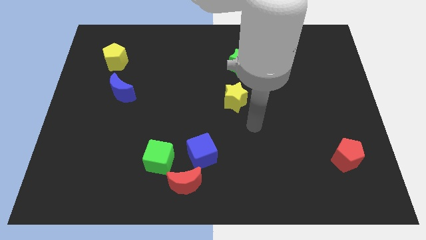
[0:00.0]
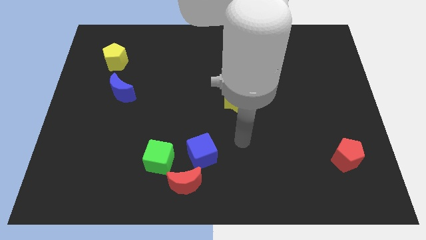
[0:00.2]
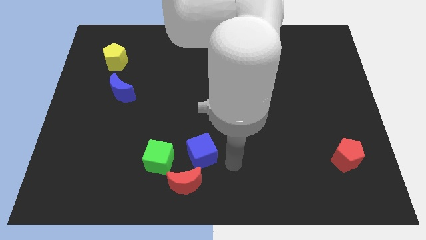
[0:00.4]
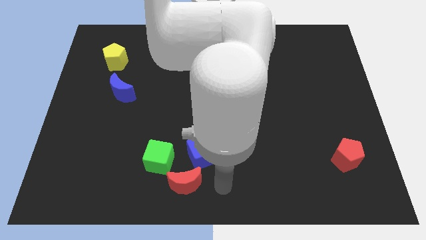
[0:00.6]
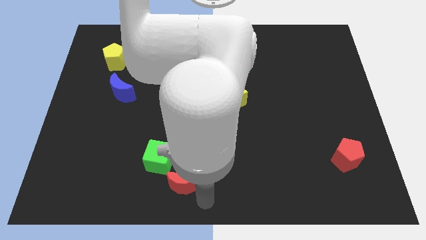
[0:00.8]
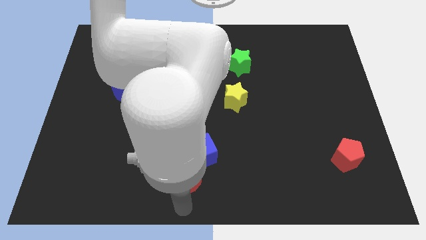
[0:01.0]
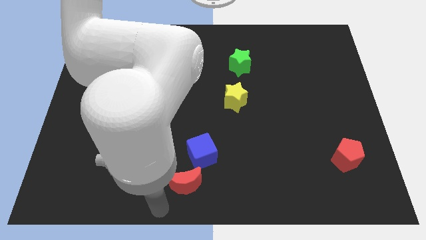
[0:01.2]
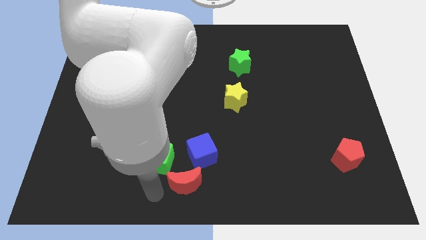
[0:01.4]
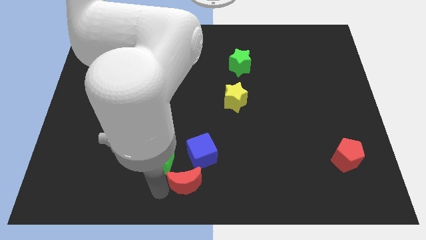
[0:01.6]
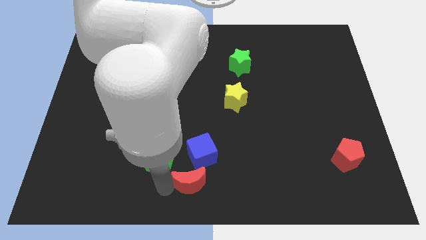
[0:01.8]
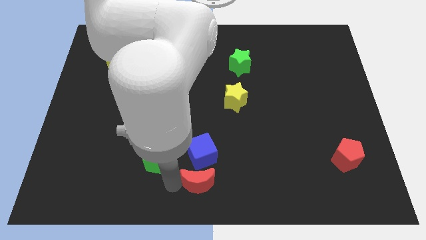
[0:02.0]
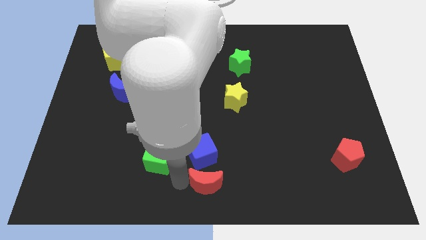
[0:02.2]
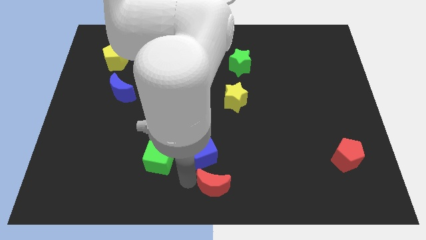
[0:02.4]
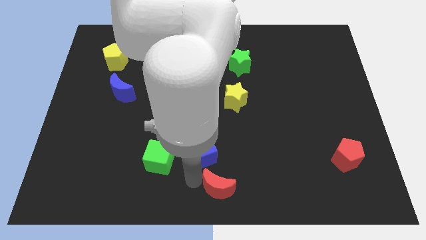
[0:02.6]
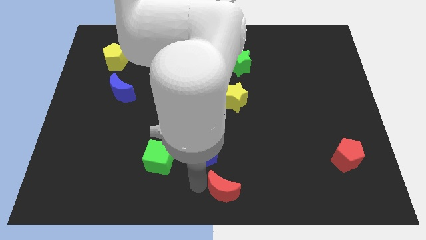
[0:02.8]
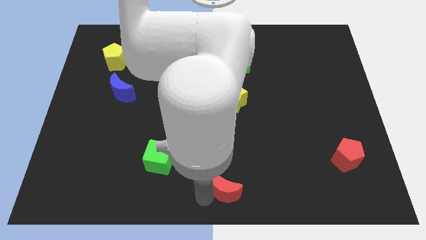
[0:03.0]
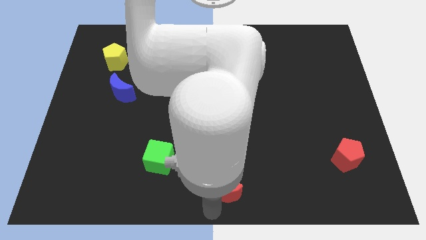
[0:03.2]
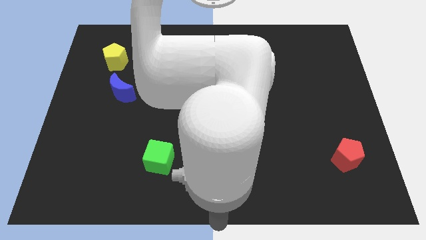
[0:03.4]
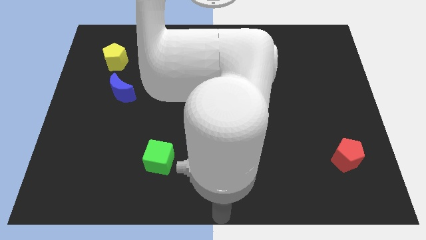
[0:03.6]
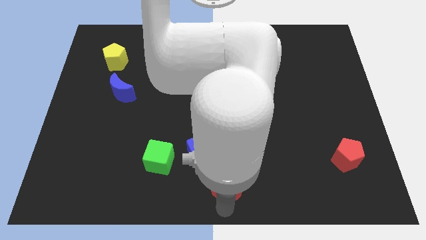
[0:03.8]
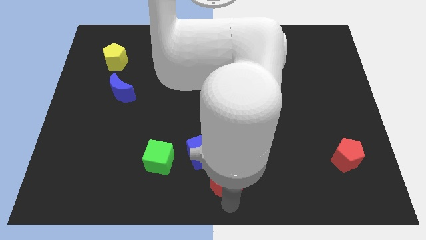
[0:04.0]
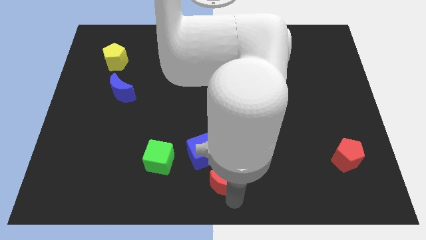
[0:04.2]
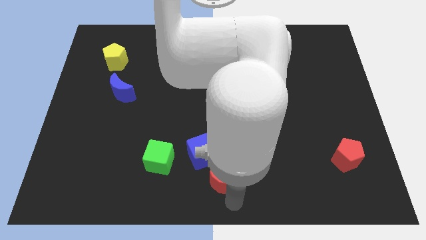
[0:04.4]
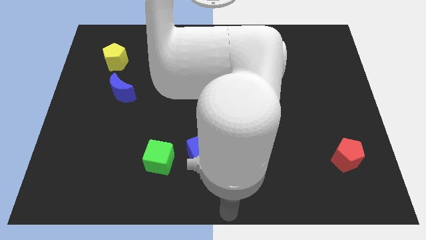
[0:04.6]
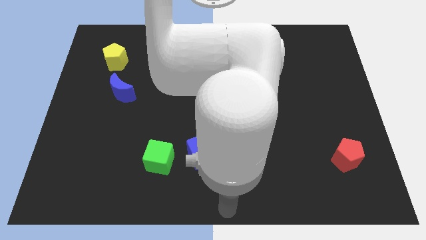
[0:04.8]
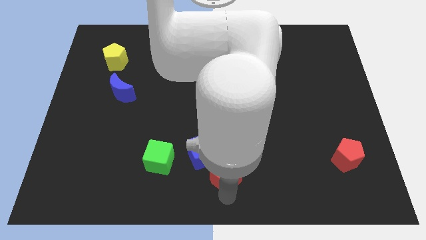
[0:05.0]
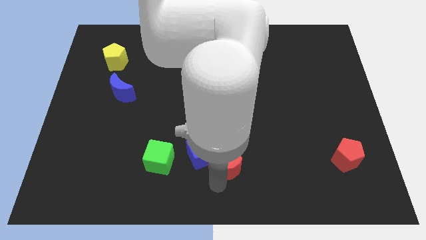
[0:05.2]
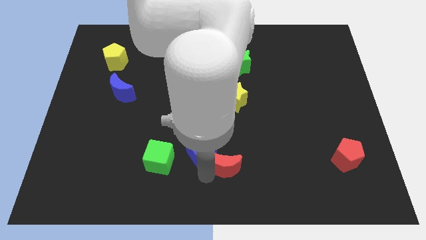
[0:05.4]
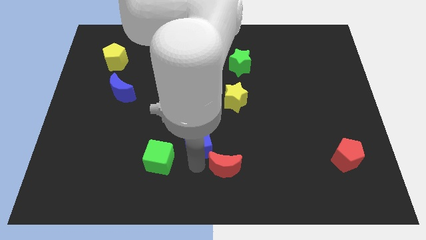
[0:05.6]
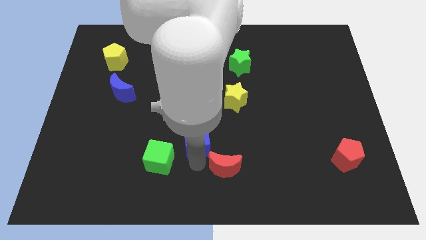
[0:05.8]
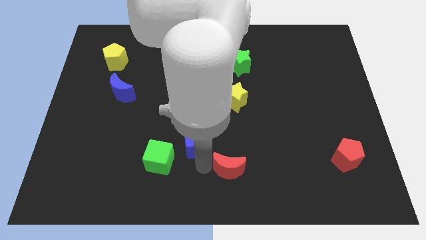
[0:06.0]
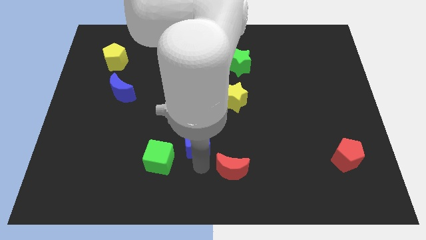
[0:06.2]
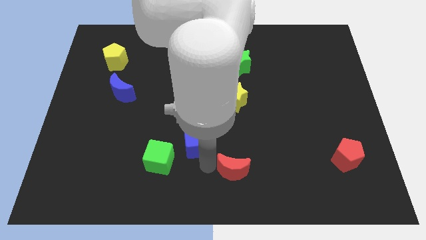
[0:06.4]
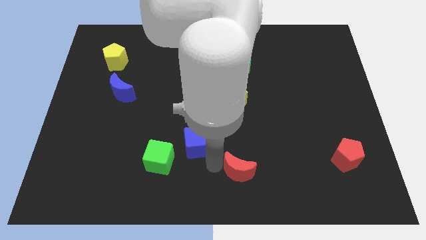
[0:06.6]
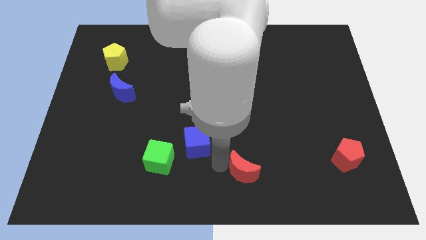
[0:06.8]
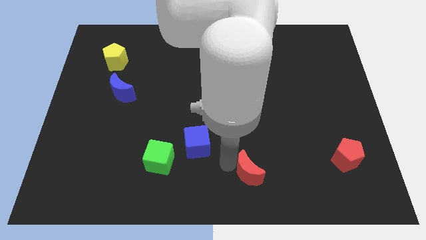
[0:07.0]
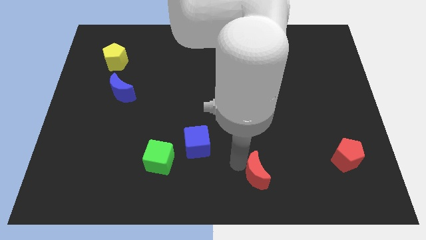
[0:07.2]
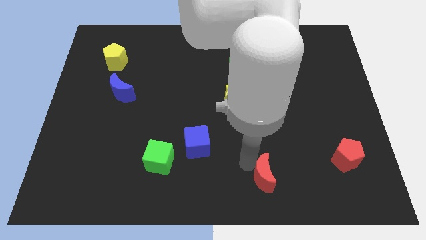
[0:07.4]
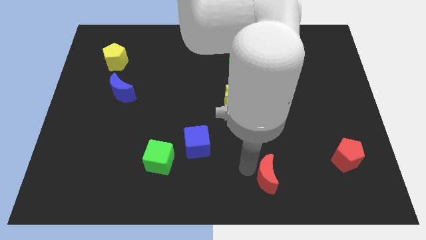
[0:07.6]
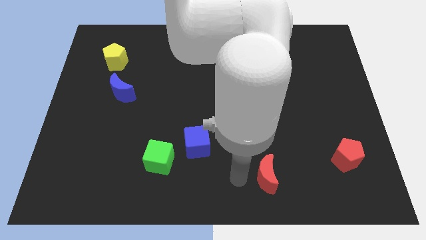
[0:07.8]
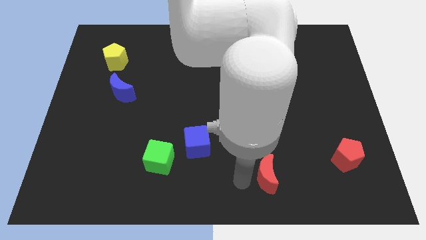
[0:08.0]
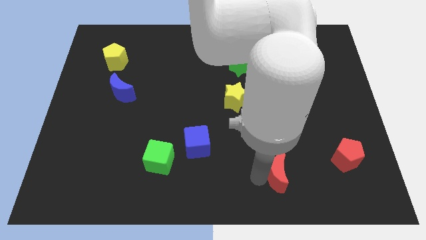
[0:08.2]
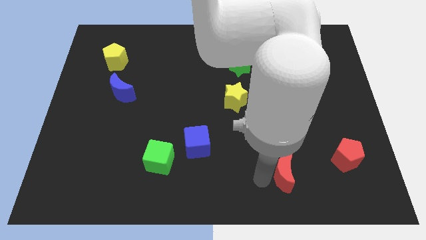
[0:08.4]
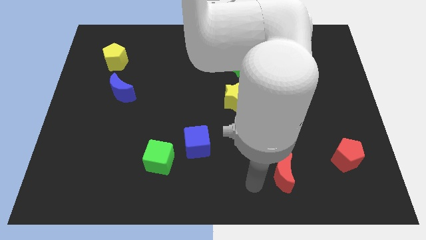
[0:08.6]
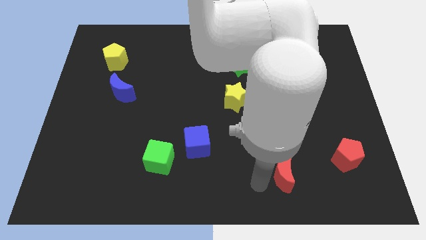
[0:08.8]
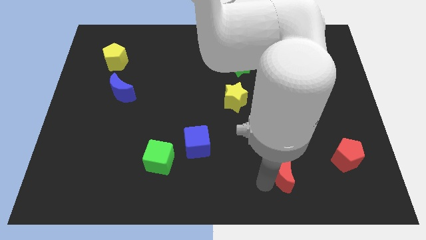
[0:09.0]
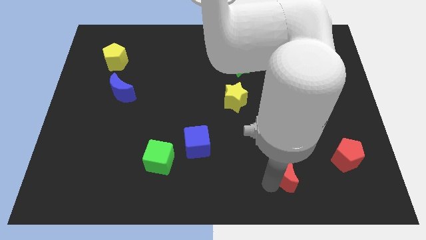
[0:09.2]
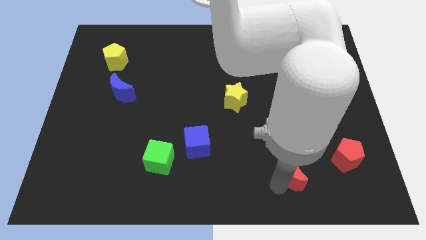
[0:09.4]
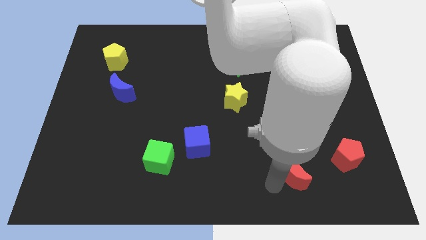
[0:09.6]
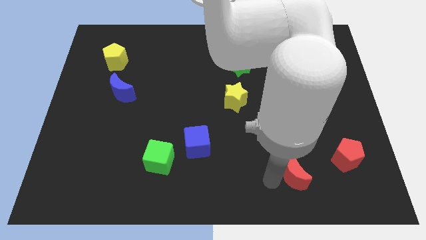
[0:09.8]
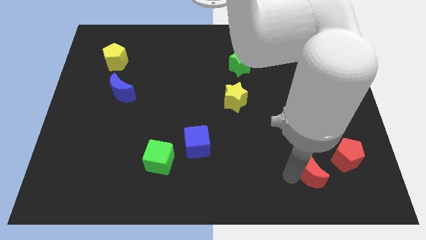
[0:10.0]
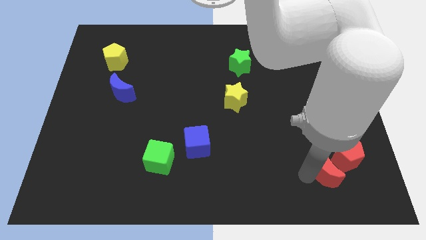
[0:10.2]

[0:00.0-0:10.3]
put the red moon towards the red pentagon

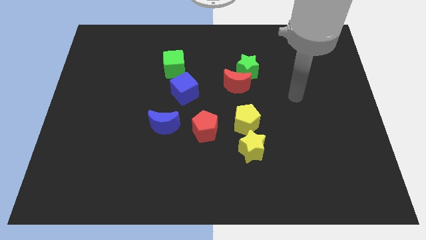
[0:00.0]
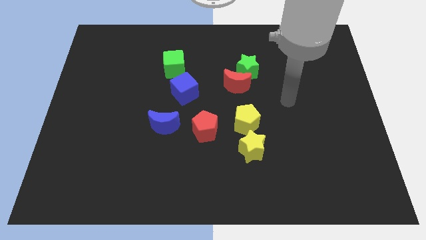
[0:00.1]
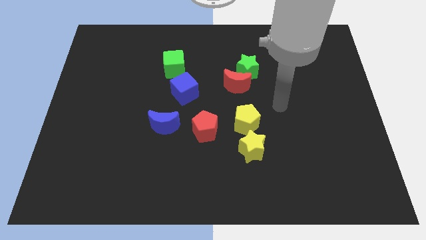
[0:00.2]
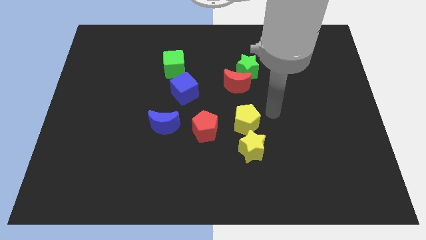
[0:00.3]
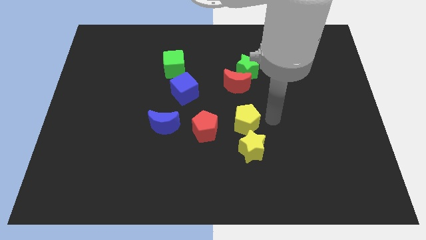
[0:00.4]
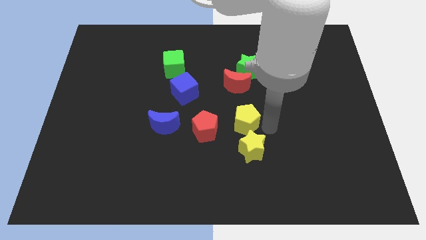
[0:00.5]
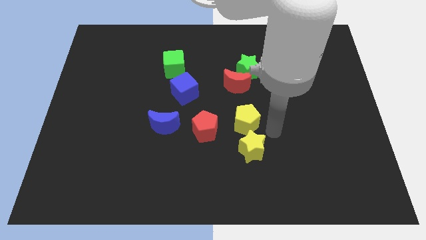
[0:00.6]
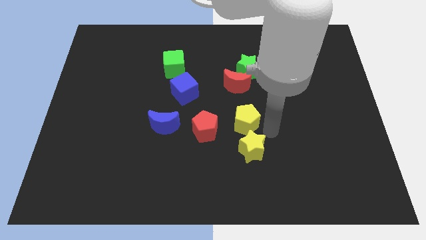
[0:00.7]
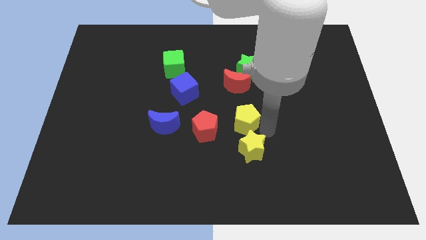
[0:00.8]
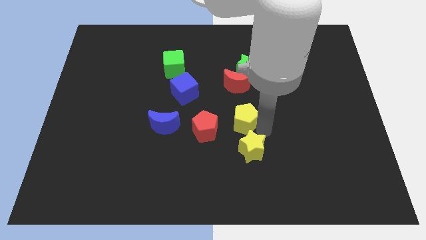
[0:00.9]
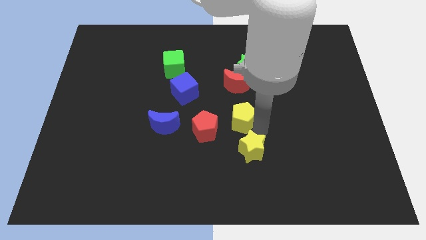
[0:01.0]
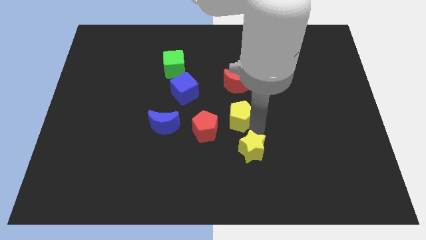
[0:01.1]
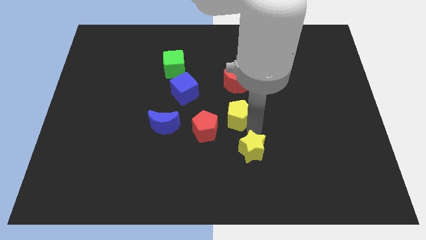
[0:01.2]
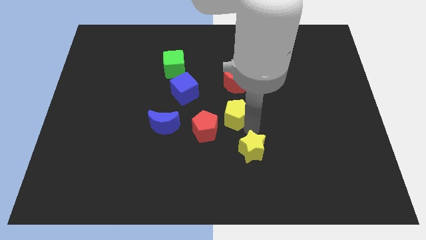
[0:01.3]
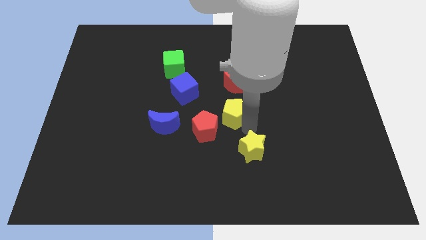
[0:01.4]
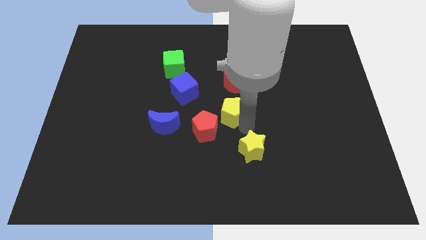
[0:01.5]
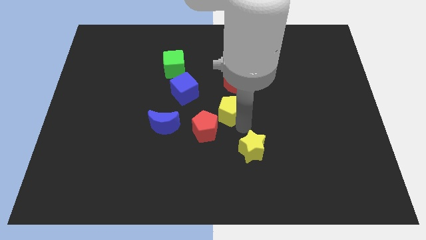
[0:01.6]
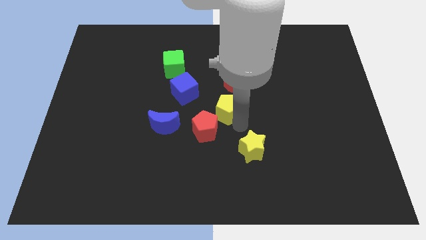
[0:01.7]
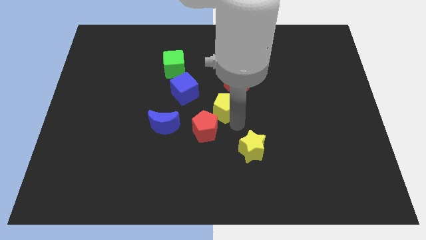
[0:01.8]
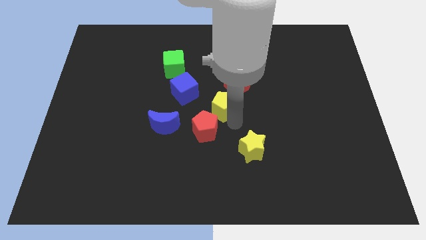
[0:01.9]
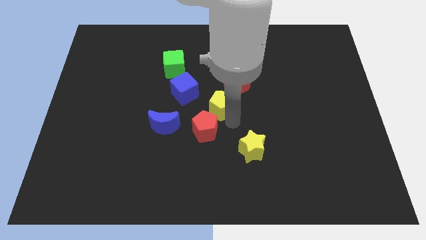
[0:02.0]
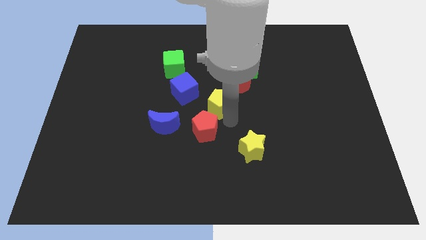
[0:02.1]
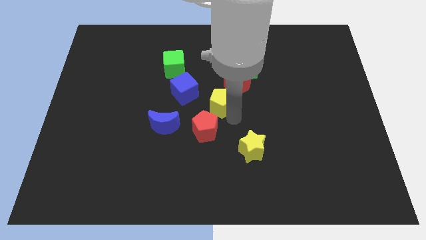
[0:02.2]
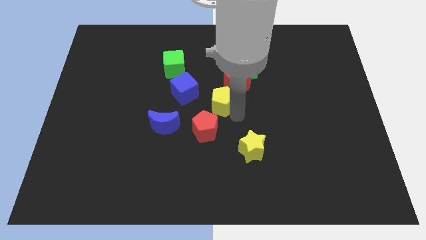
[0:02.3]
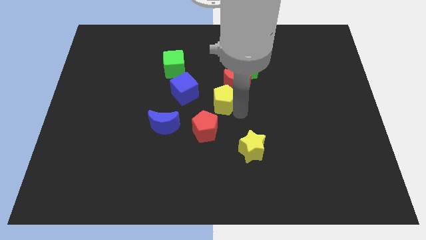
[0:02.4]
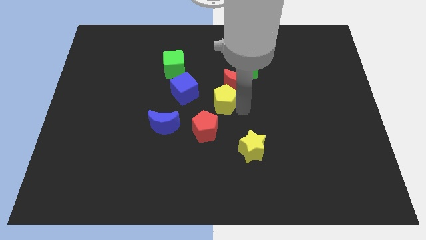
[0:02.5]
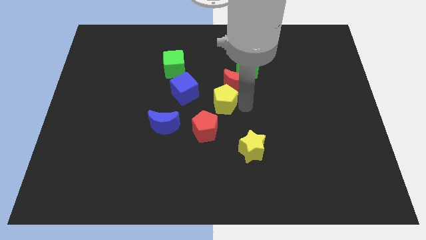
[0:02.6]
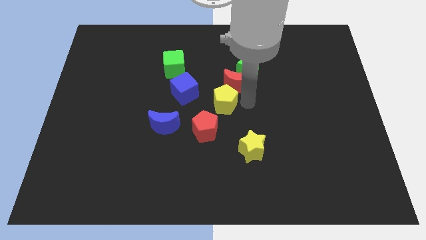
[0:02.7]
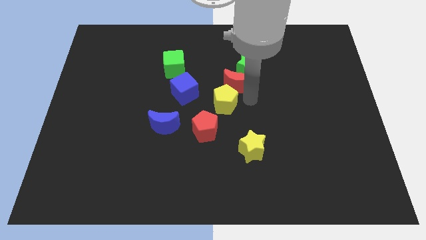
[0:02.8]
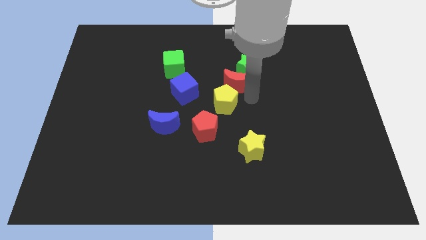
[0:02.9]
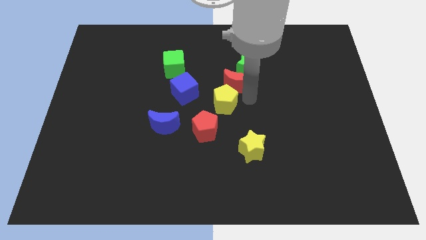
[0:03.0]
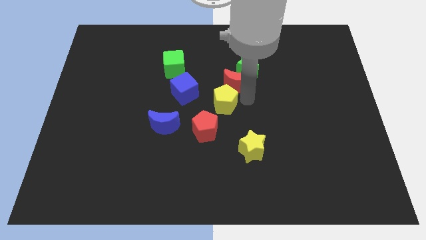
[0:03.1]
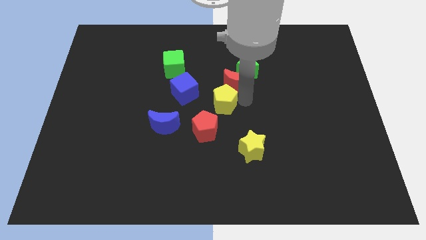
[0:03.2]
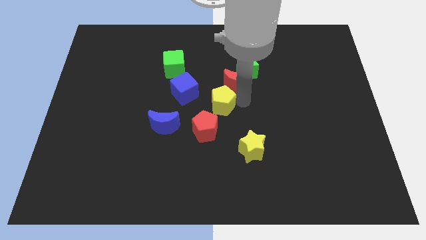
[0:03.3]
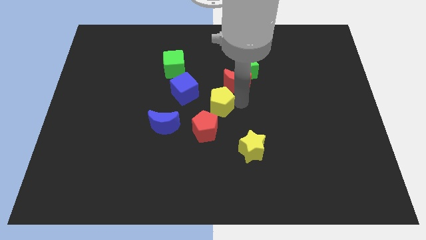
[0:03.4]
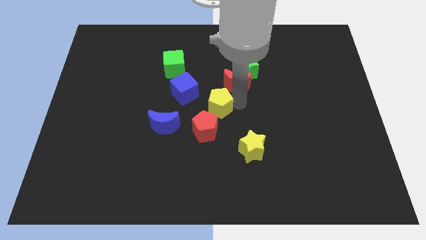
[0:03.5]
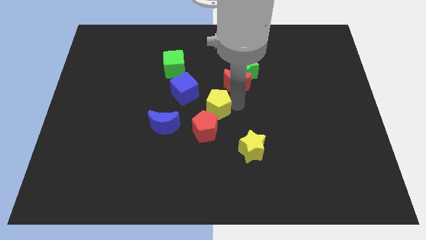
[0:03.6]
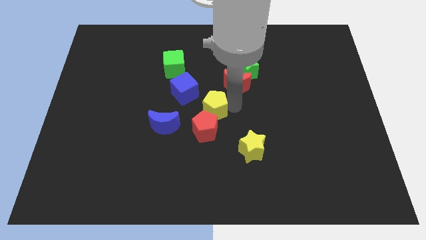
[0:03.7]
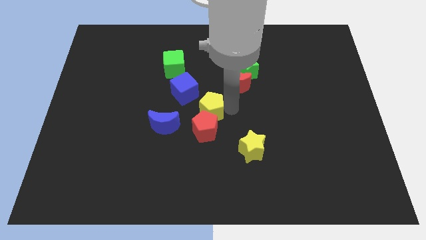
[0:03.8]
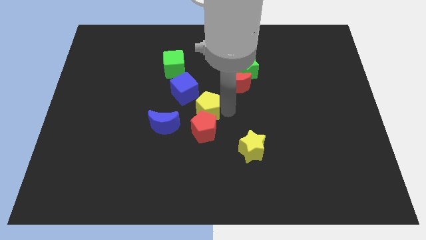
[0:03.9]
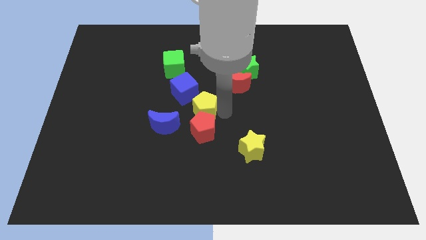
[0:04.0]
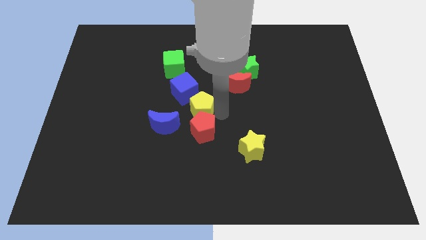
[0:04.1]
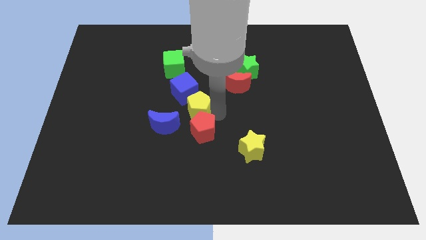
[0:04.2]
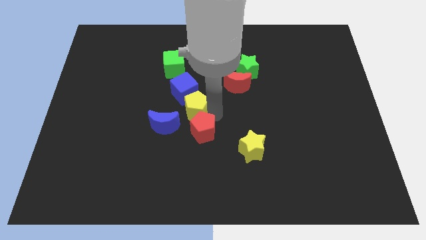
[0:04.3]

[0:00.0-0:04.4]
put the yellow pentagon to the blue cube
